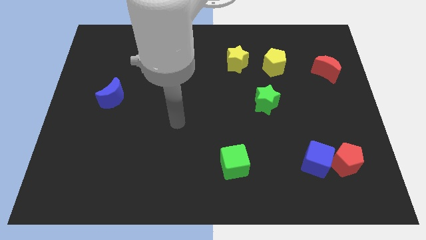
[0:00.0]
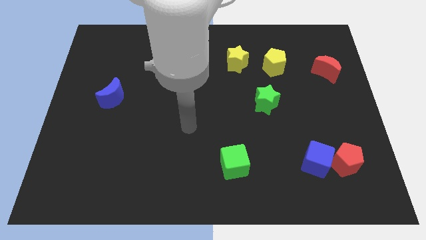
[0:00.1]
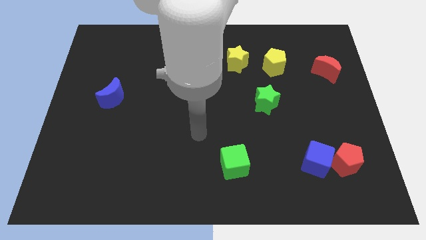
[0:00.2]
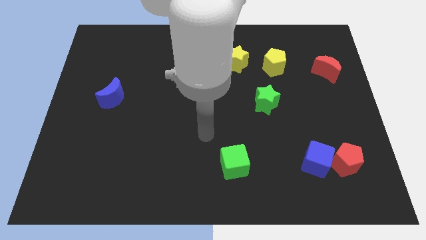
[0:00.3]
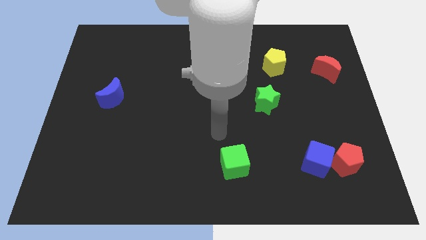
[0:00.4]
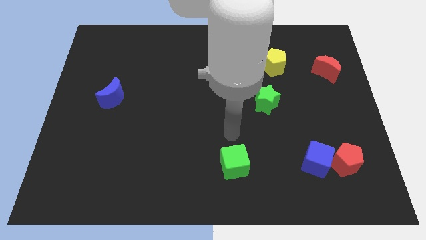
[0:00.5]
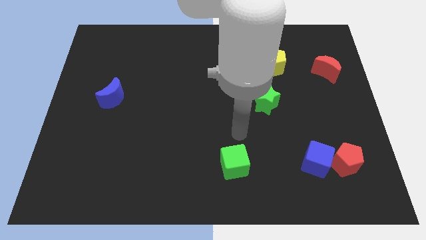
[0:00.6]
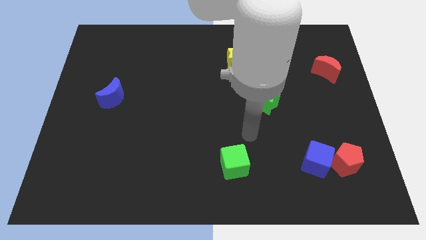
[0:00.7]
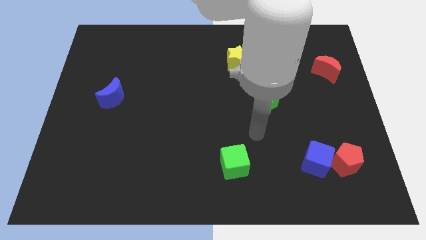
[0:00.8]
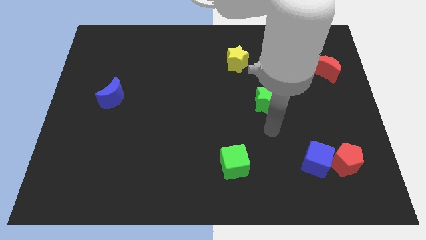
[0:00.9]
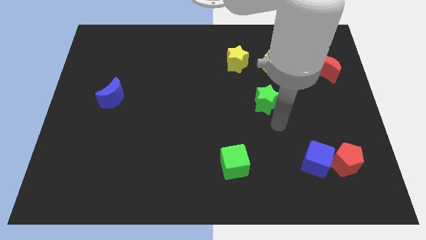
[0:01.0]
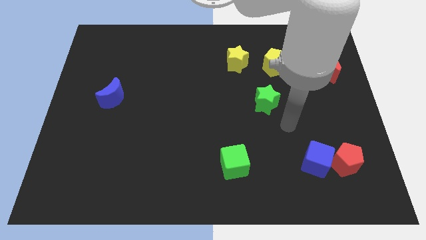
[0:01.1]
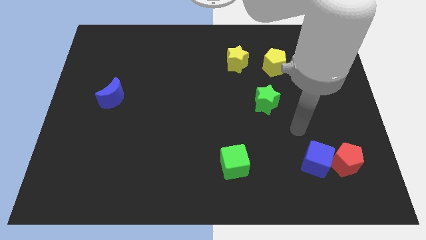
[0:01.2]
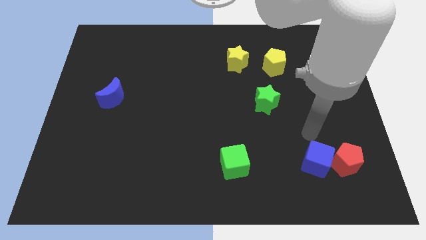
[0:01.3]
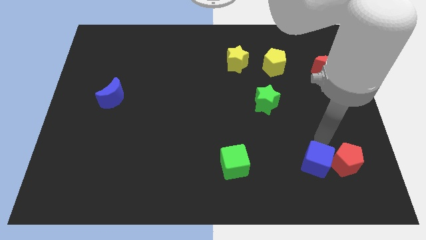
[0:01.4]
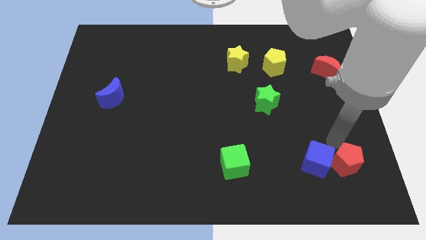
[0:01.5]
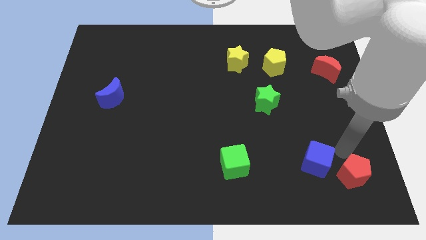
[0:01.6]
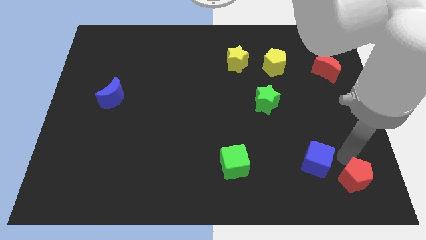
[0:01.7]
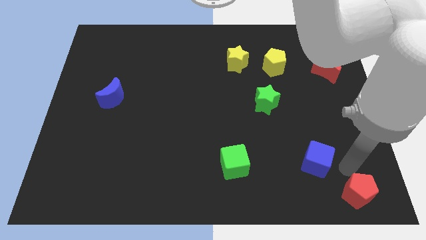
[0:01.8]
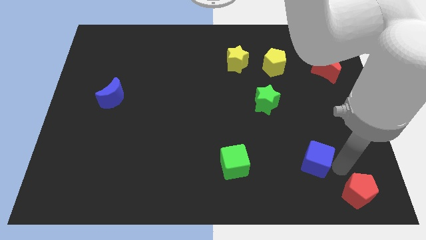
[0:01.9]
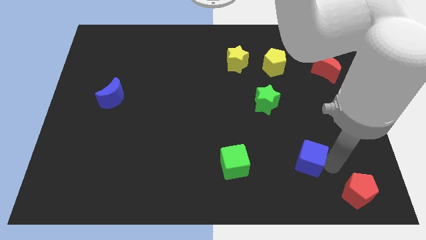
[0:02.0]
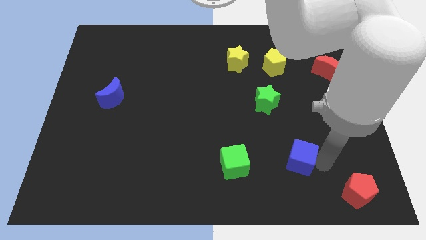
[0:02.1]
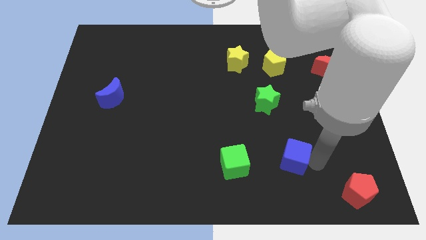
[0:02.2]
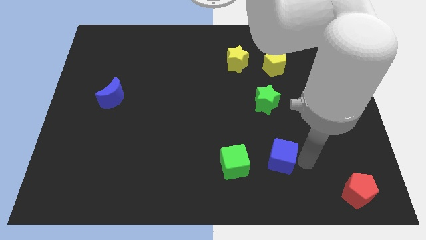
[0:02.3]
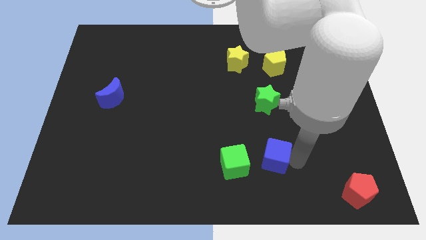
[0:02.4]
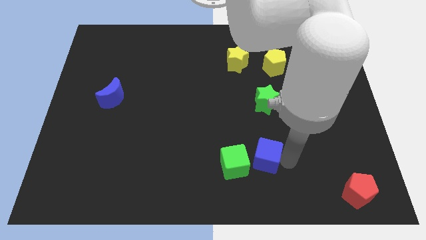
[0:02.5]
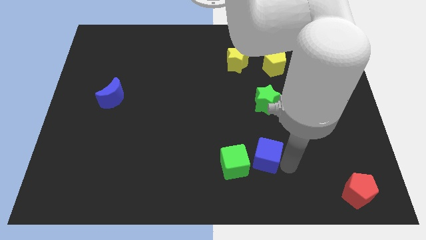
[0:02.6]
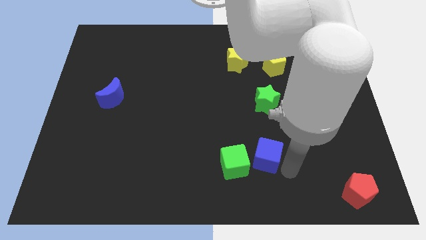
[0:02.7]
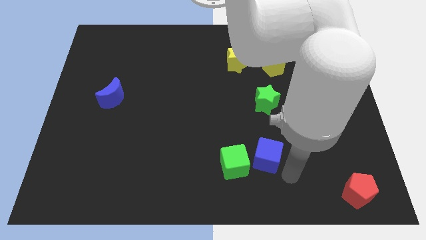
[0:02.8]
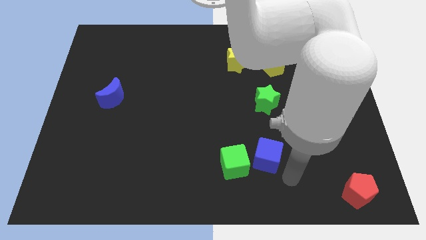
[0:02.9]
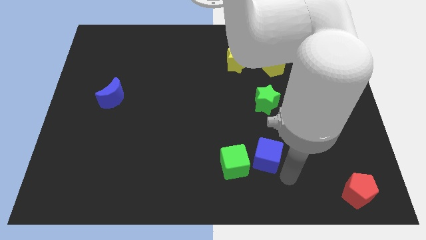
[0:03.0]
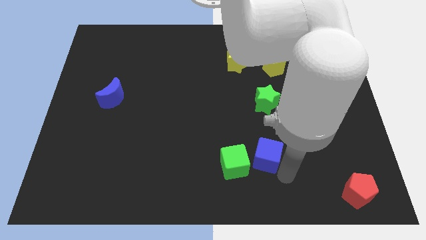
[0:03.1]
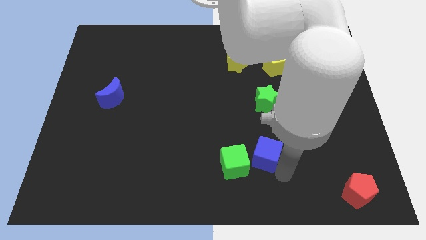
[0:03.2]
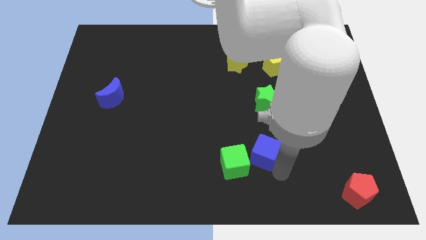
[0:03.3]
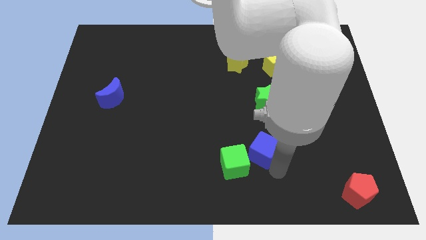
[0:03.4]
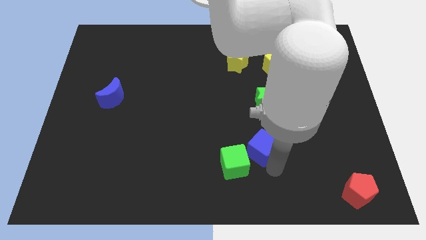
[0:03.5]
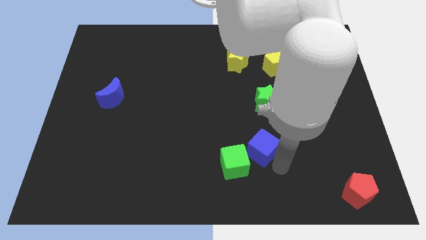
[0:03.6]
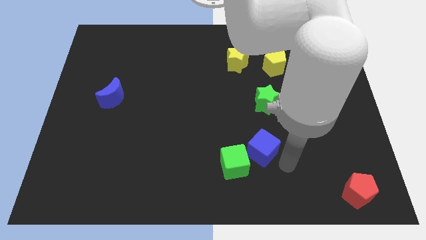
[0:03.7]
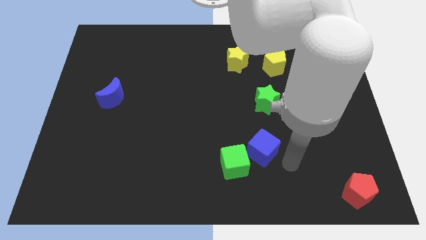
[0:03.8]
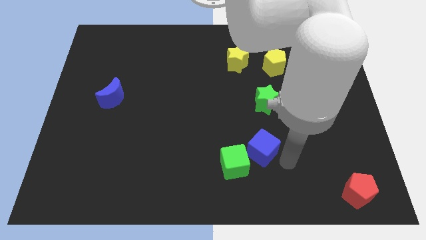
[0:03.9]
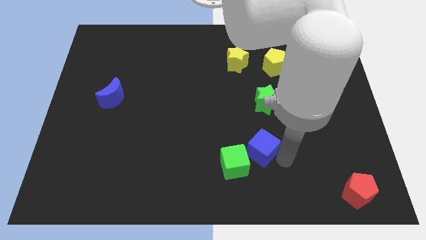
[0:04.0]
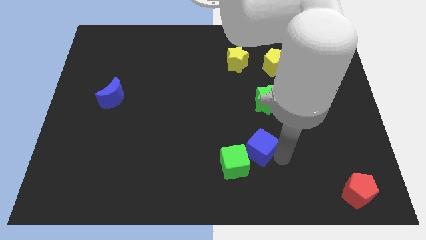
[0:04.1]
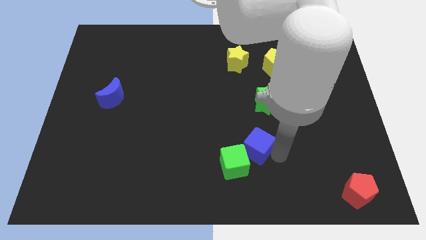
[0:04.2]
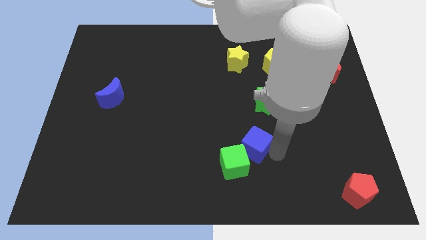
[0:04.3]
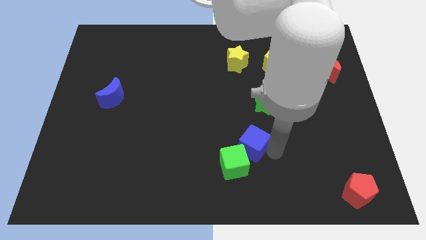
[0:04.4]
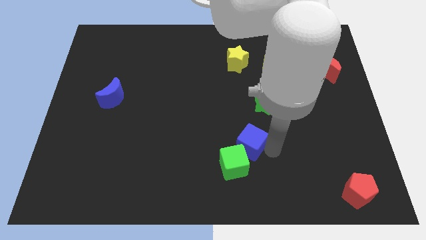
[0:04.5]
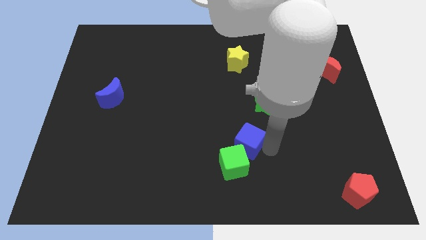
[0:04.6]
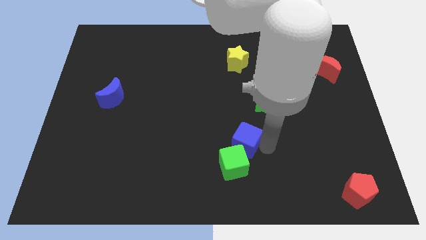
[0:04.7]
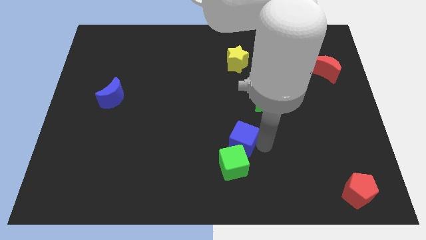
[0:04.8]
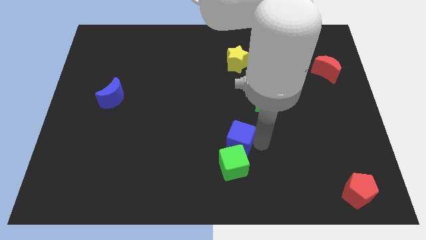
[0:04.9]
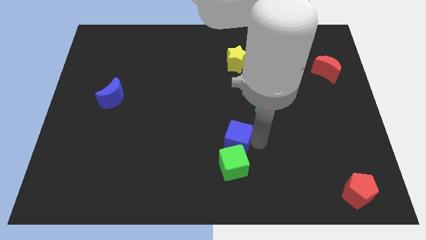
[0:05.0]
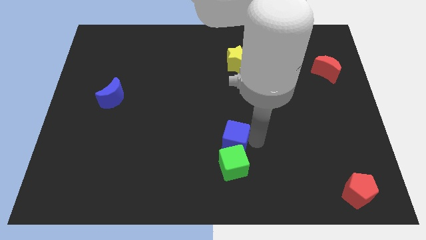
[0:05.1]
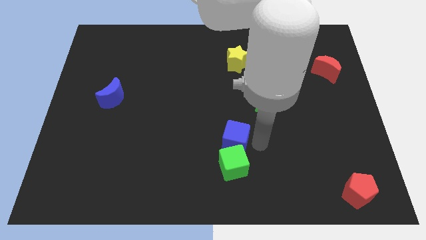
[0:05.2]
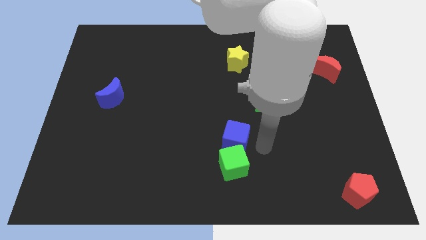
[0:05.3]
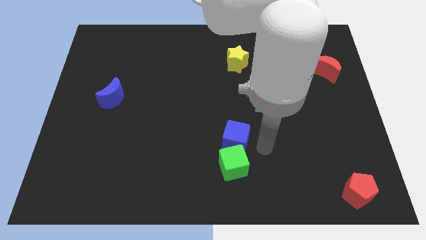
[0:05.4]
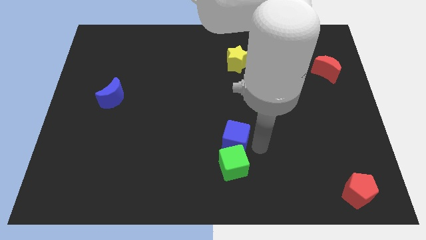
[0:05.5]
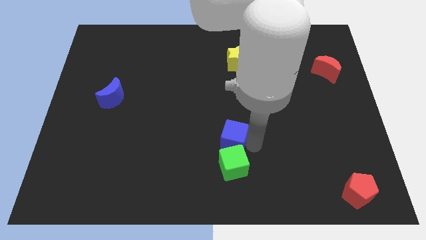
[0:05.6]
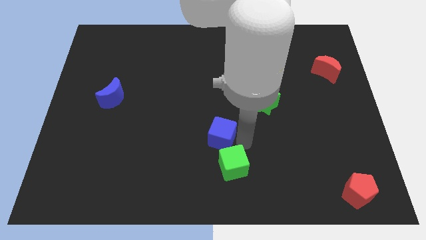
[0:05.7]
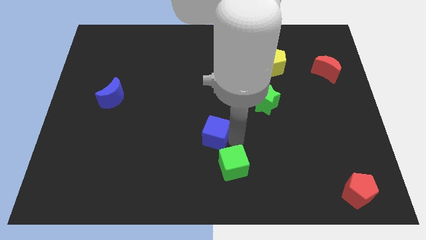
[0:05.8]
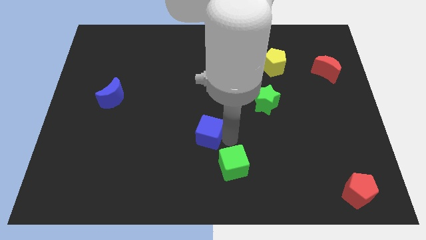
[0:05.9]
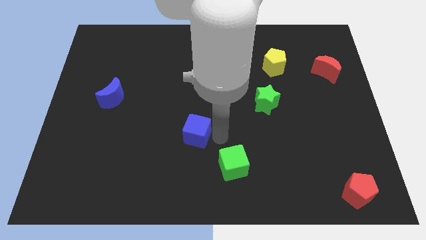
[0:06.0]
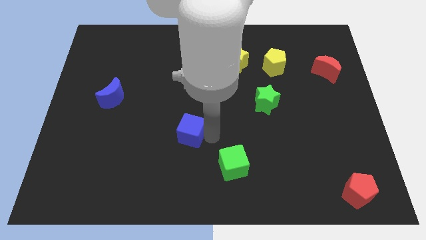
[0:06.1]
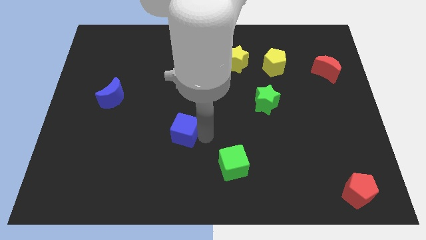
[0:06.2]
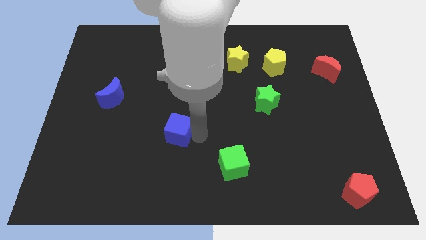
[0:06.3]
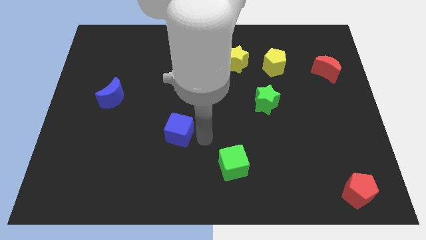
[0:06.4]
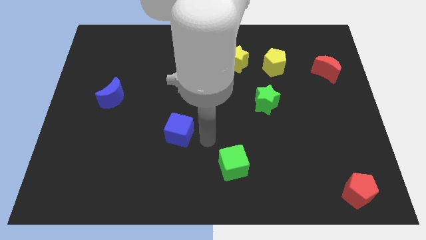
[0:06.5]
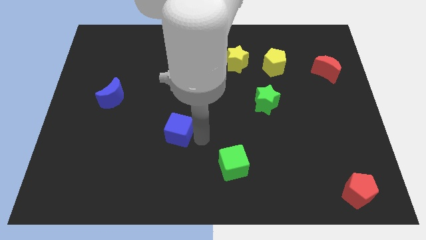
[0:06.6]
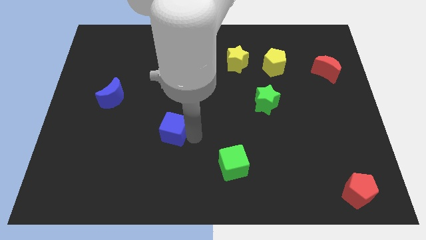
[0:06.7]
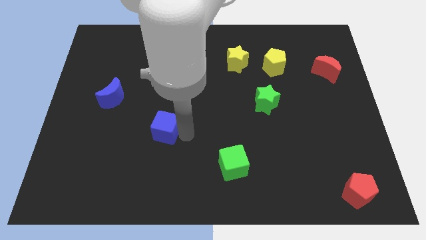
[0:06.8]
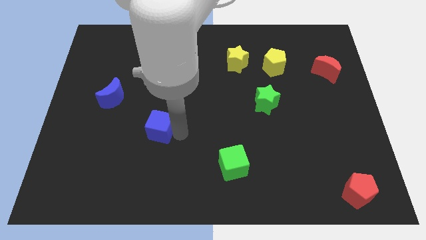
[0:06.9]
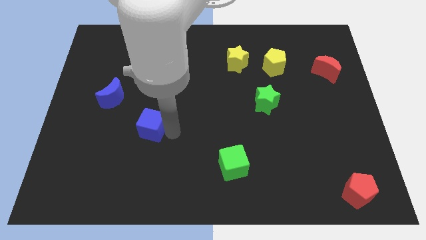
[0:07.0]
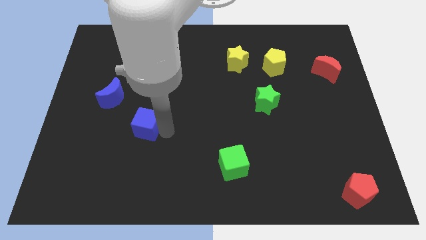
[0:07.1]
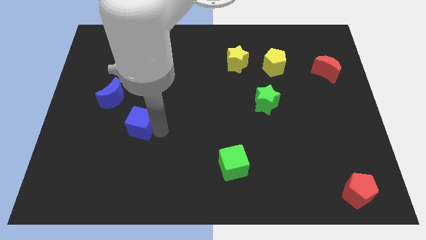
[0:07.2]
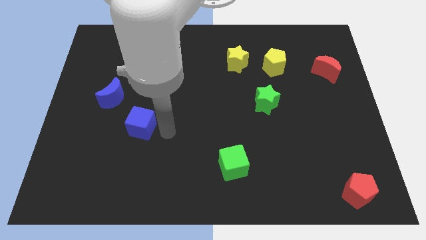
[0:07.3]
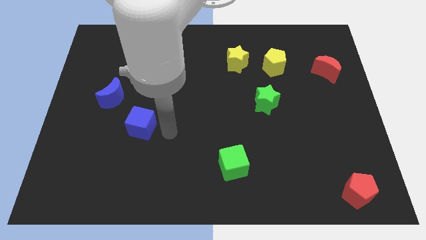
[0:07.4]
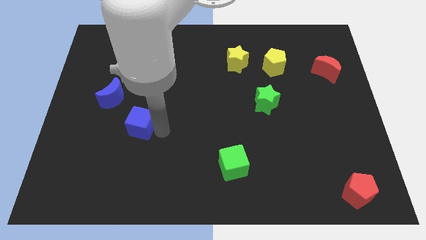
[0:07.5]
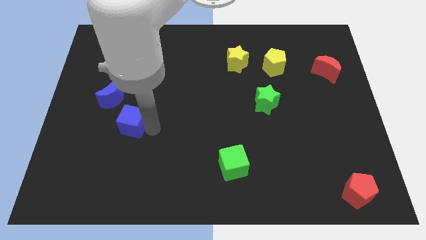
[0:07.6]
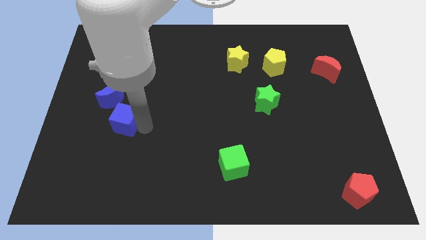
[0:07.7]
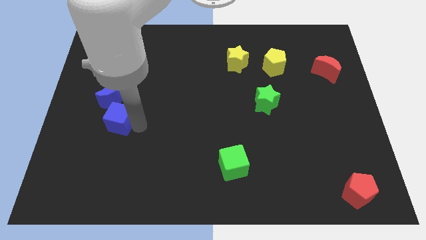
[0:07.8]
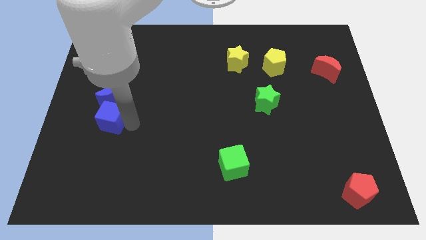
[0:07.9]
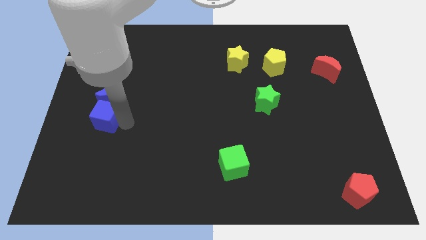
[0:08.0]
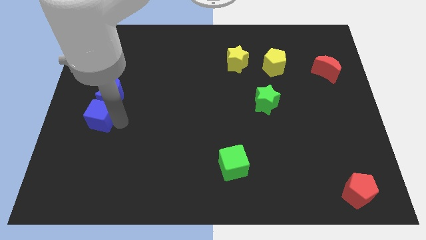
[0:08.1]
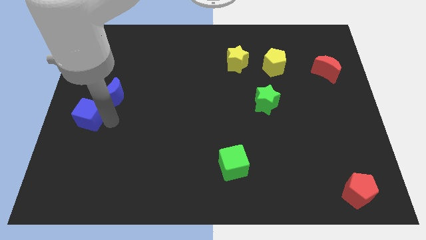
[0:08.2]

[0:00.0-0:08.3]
move the blue cube to the left side
